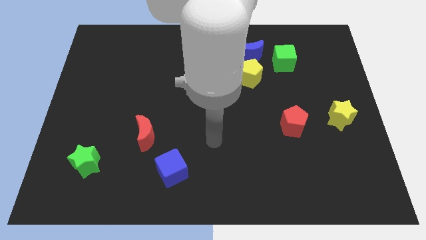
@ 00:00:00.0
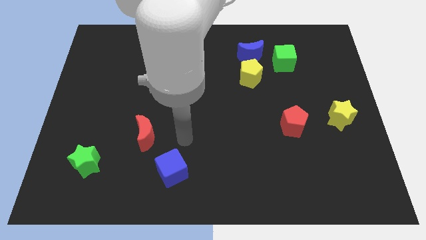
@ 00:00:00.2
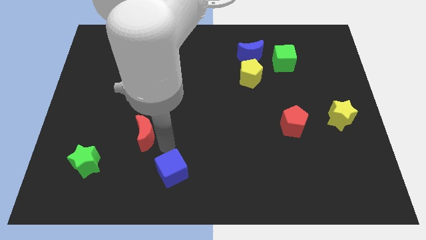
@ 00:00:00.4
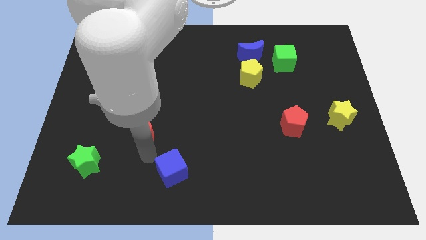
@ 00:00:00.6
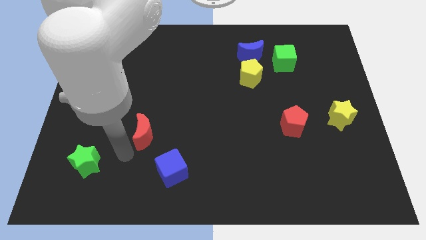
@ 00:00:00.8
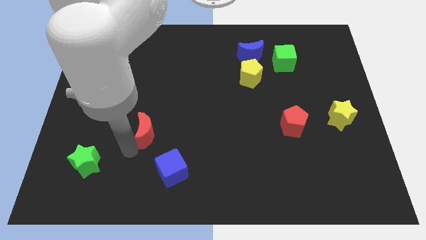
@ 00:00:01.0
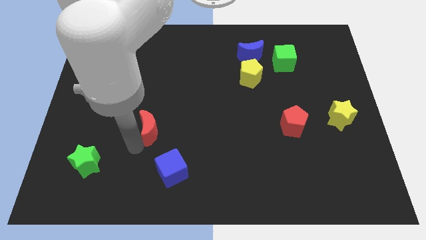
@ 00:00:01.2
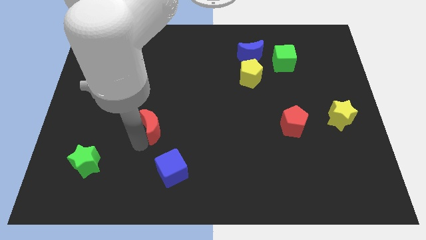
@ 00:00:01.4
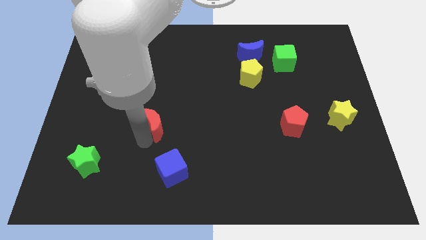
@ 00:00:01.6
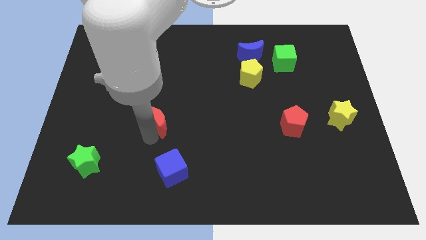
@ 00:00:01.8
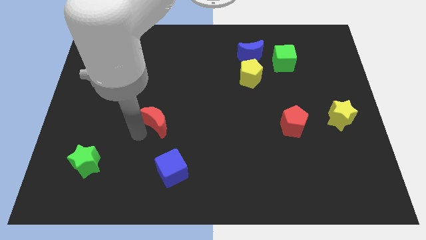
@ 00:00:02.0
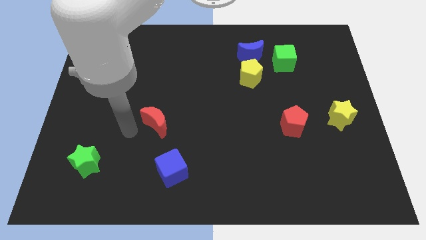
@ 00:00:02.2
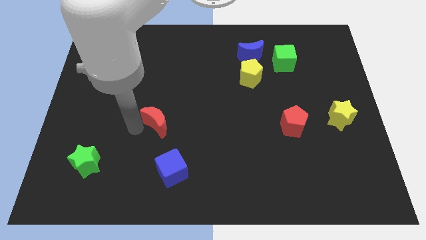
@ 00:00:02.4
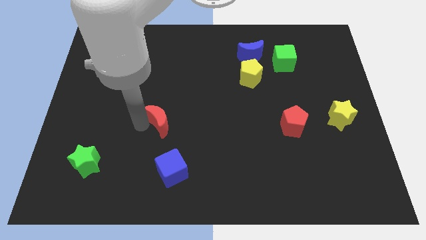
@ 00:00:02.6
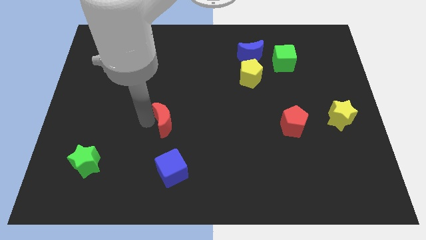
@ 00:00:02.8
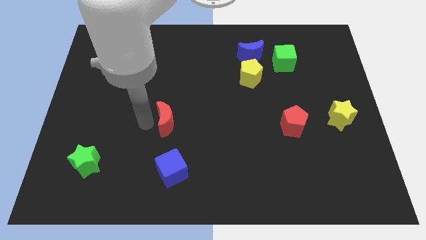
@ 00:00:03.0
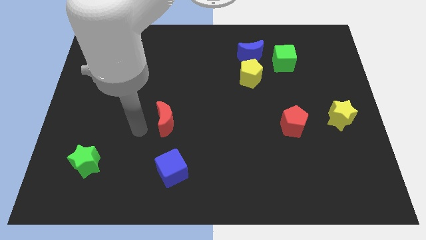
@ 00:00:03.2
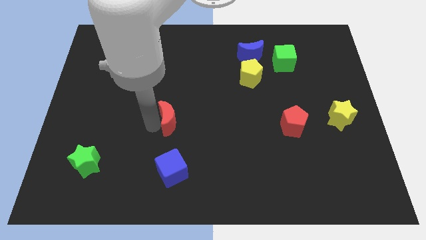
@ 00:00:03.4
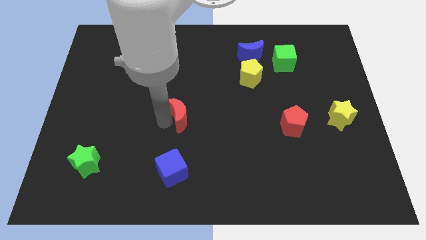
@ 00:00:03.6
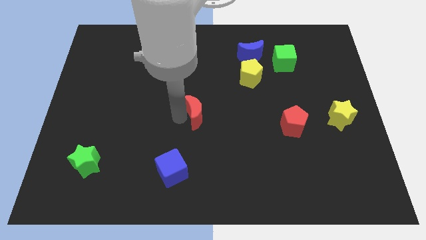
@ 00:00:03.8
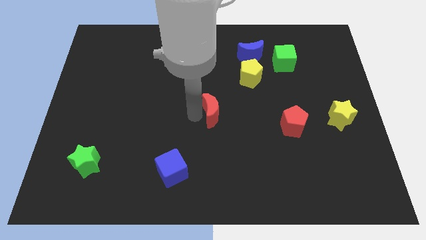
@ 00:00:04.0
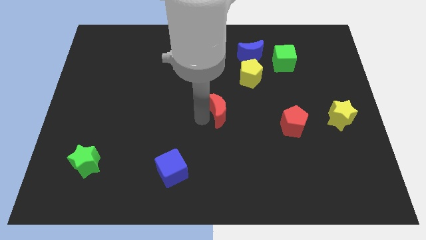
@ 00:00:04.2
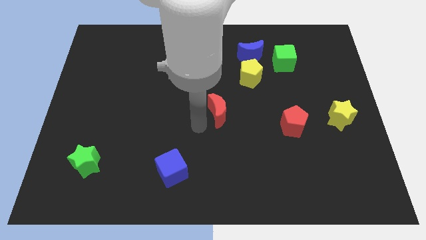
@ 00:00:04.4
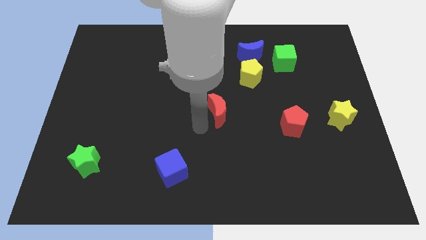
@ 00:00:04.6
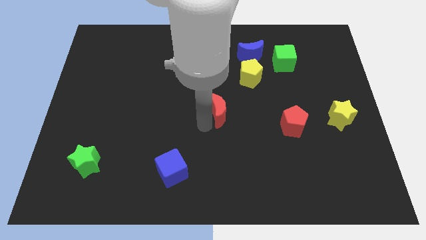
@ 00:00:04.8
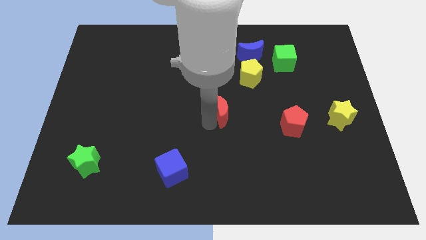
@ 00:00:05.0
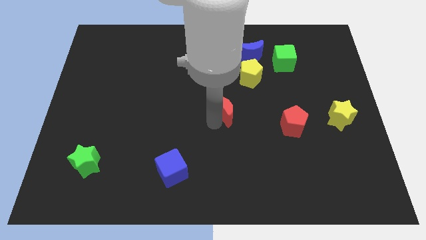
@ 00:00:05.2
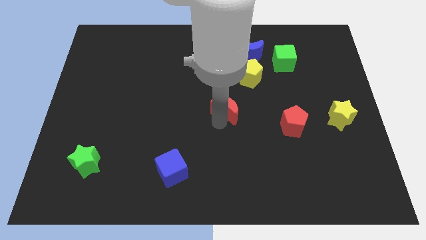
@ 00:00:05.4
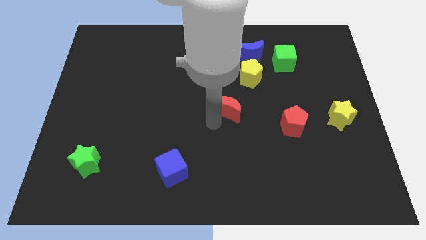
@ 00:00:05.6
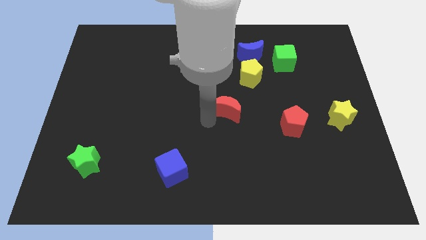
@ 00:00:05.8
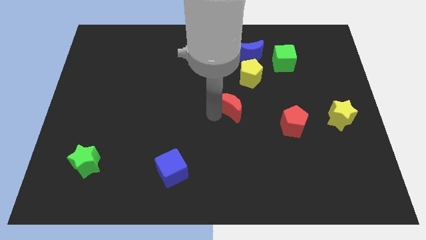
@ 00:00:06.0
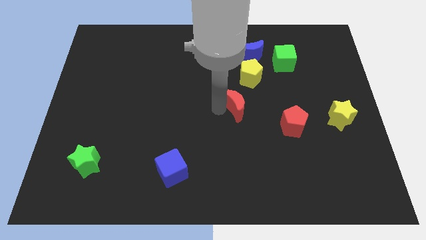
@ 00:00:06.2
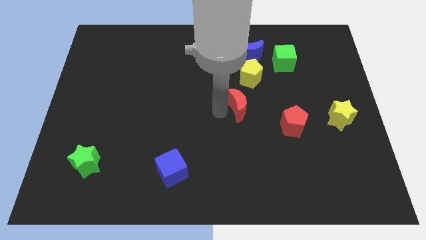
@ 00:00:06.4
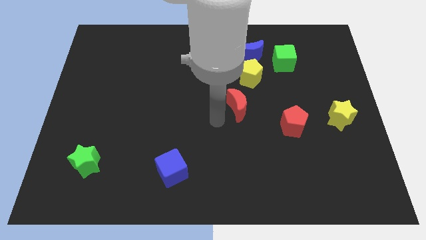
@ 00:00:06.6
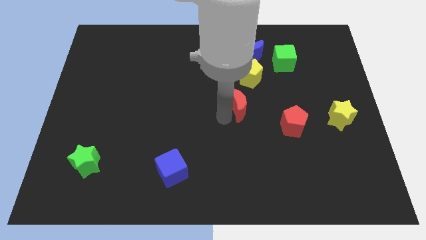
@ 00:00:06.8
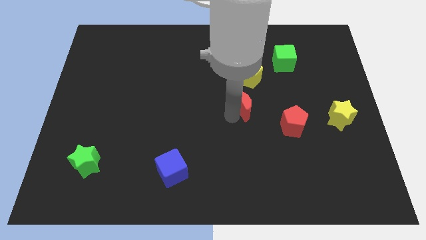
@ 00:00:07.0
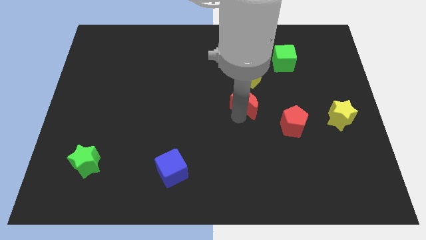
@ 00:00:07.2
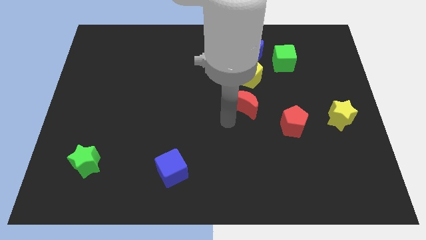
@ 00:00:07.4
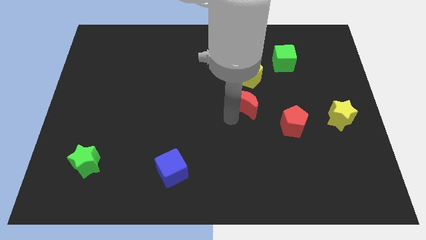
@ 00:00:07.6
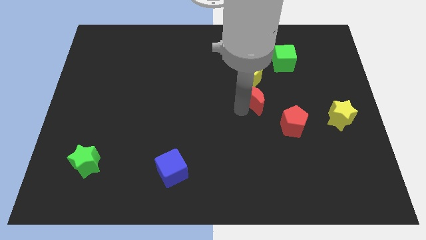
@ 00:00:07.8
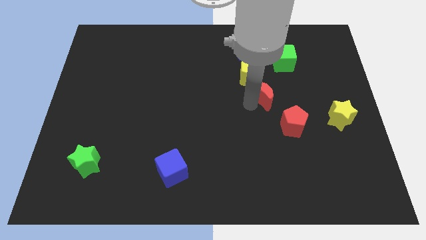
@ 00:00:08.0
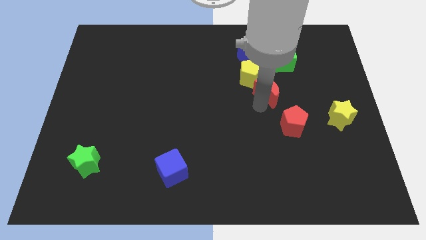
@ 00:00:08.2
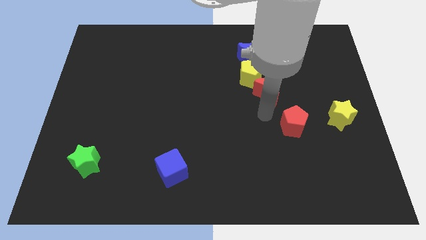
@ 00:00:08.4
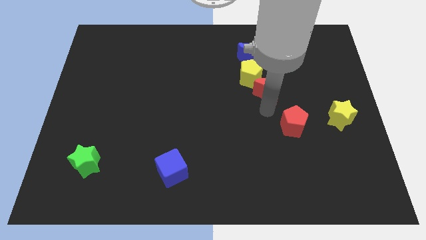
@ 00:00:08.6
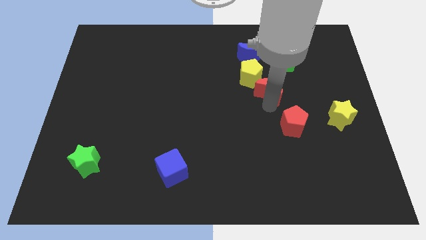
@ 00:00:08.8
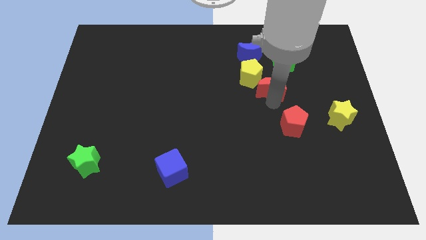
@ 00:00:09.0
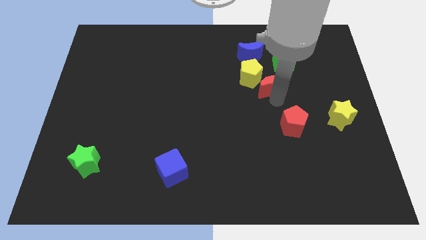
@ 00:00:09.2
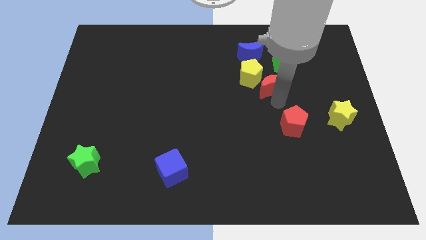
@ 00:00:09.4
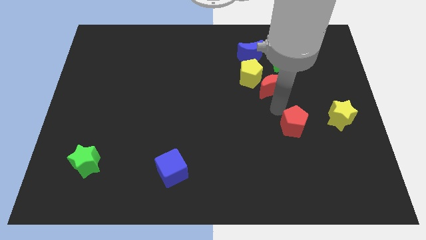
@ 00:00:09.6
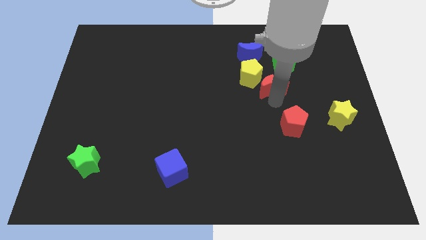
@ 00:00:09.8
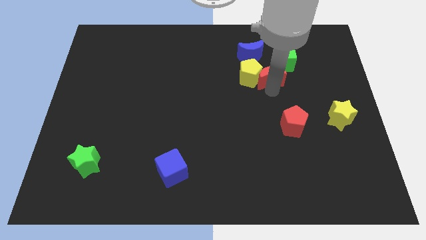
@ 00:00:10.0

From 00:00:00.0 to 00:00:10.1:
move the red moon to the top right side of the yellow pentagon

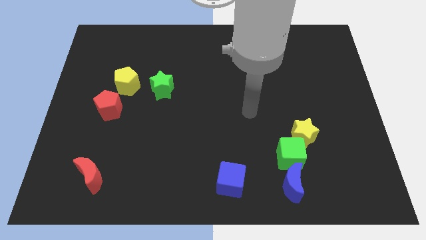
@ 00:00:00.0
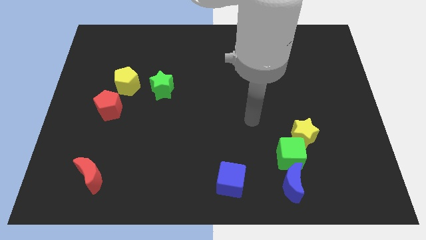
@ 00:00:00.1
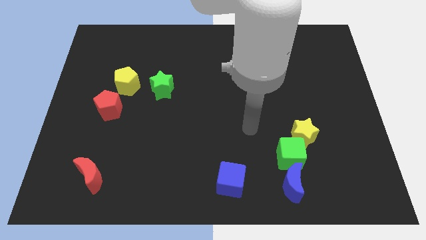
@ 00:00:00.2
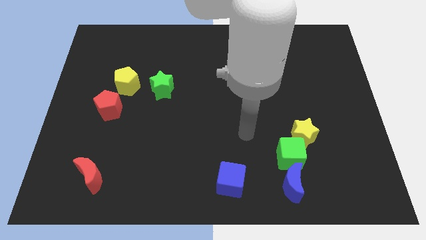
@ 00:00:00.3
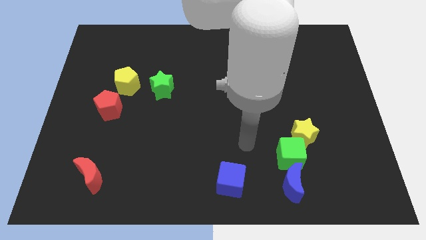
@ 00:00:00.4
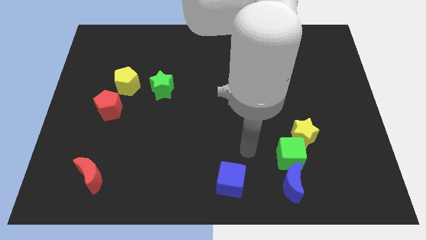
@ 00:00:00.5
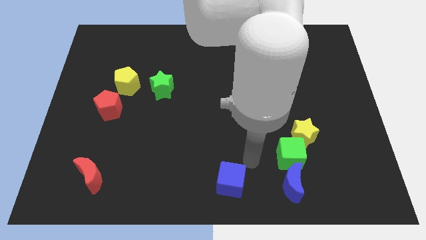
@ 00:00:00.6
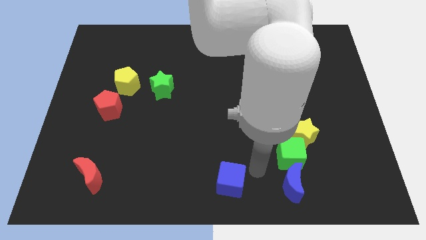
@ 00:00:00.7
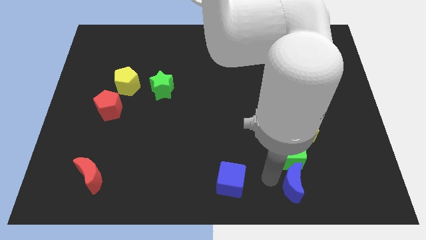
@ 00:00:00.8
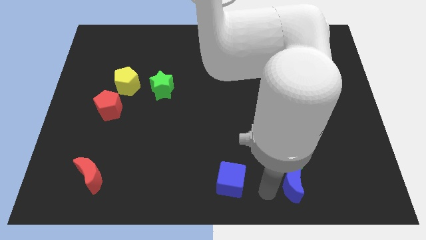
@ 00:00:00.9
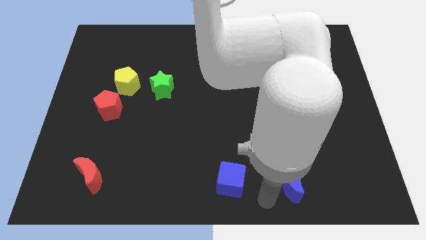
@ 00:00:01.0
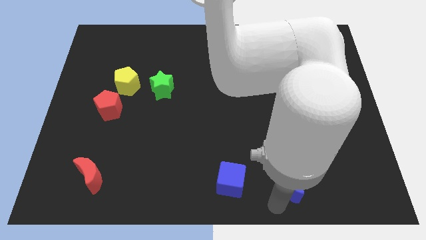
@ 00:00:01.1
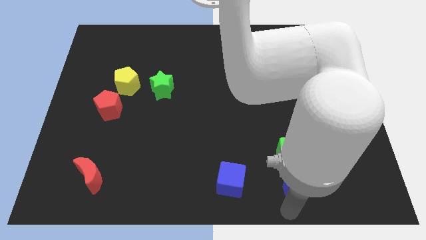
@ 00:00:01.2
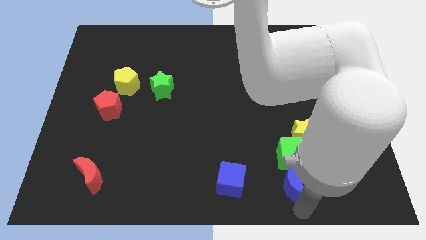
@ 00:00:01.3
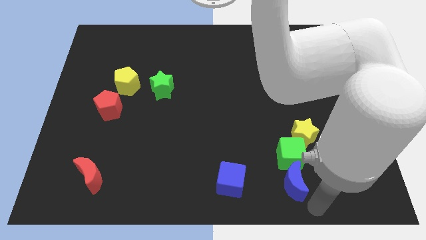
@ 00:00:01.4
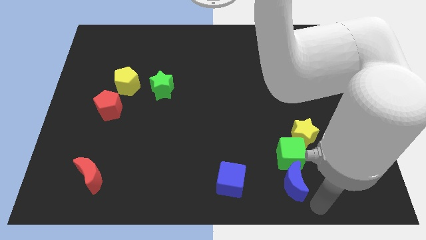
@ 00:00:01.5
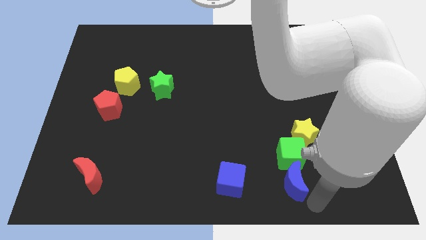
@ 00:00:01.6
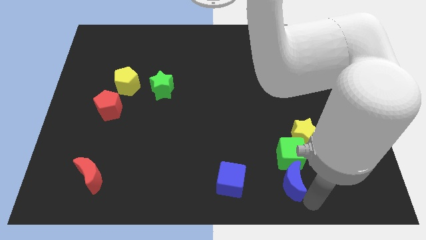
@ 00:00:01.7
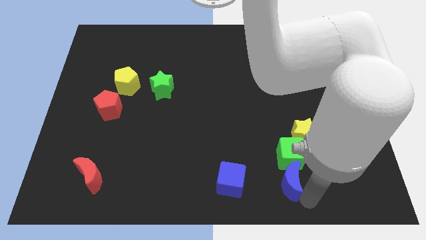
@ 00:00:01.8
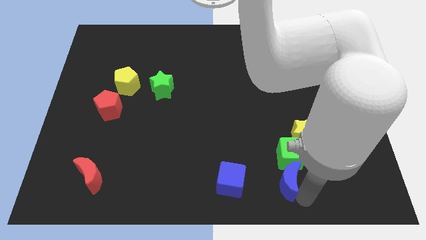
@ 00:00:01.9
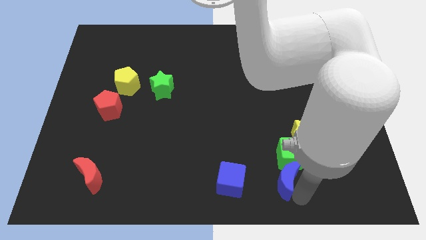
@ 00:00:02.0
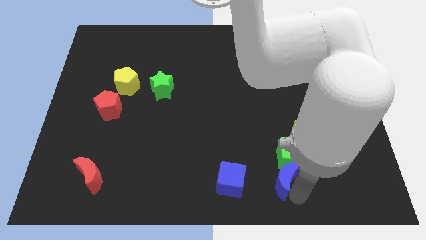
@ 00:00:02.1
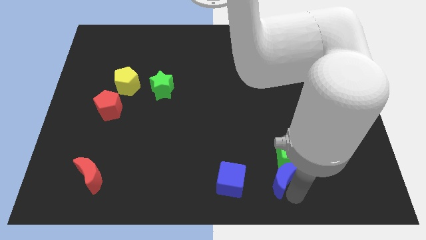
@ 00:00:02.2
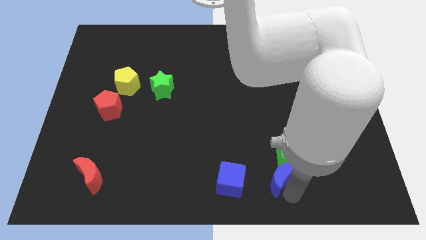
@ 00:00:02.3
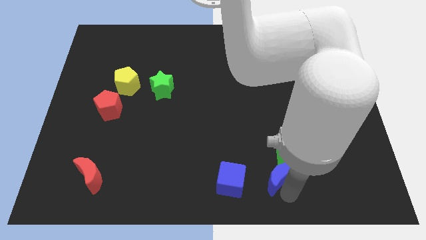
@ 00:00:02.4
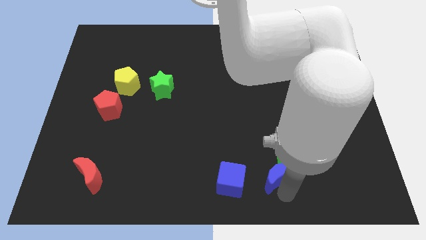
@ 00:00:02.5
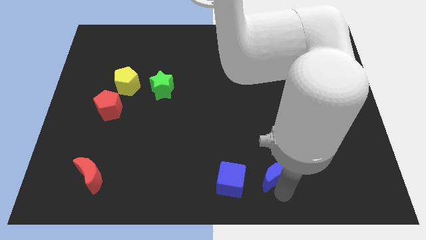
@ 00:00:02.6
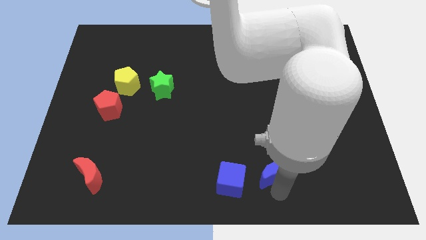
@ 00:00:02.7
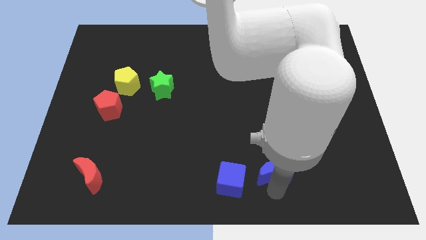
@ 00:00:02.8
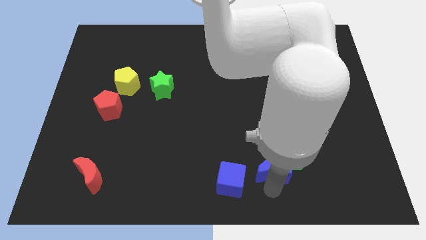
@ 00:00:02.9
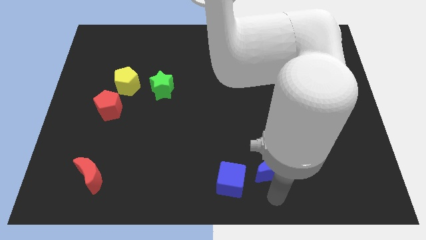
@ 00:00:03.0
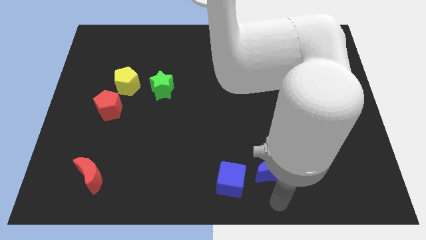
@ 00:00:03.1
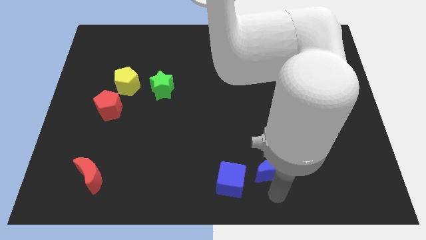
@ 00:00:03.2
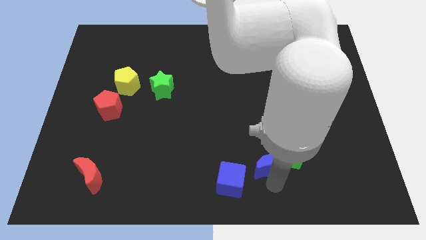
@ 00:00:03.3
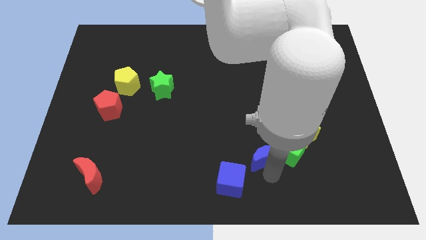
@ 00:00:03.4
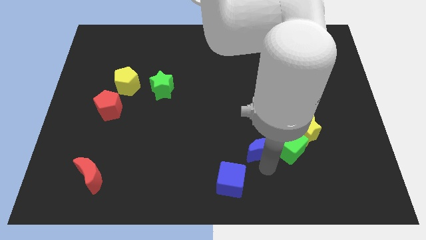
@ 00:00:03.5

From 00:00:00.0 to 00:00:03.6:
push the blue moon diagonally up and to the left of the green cube
